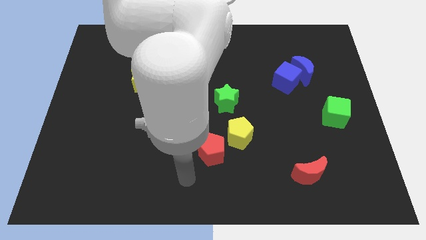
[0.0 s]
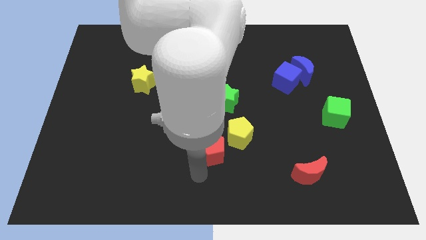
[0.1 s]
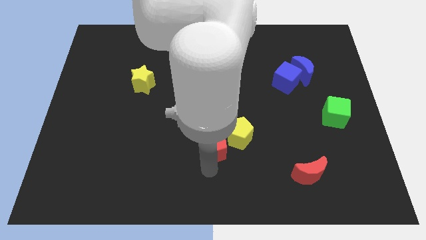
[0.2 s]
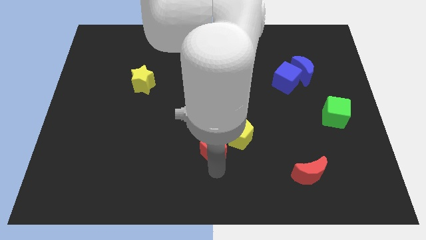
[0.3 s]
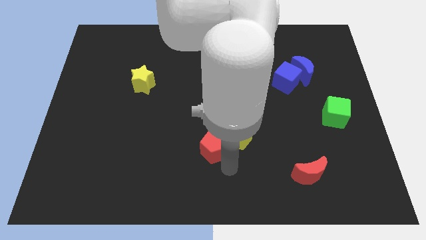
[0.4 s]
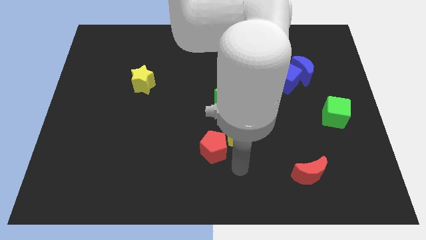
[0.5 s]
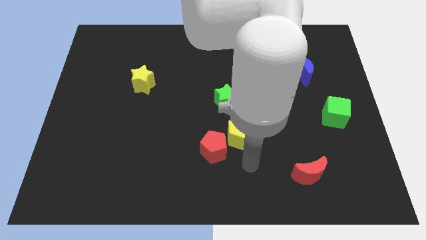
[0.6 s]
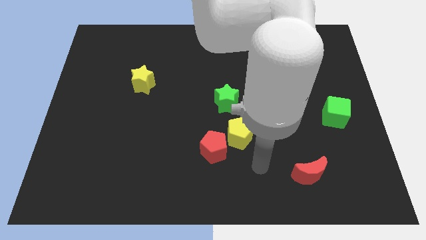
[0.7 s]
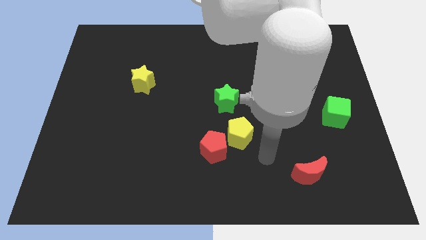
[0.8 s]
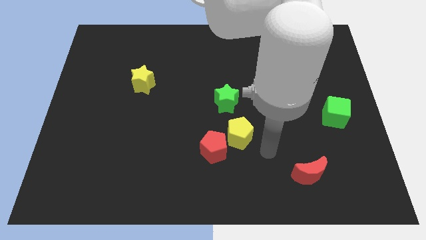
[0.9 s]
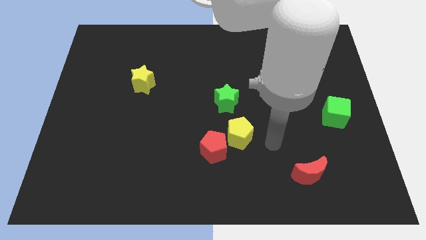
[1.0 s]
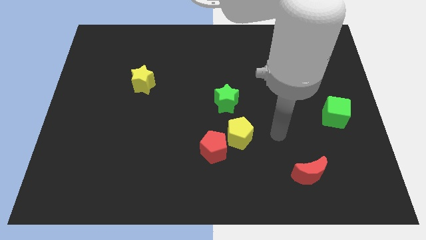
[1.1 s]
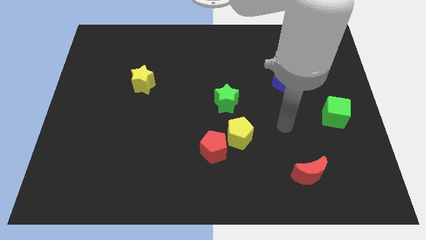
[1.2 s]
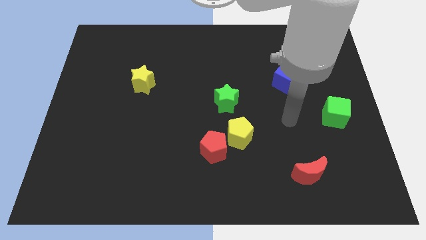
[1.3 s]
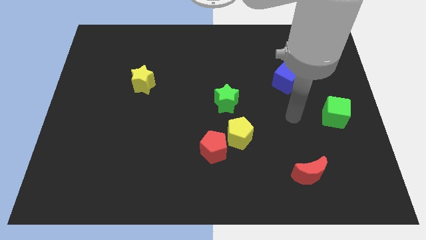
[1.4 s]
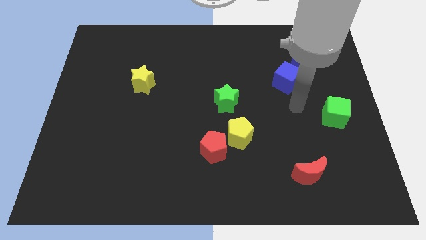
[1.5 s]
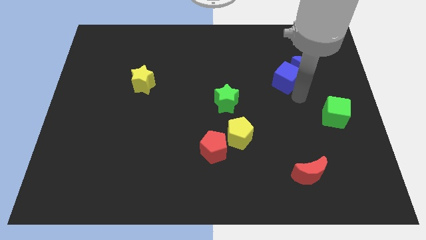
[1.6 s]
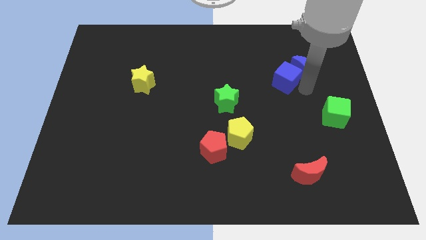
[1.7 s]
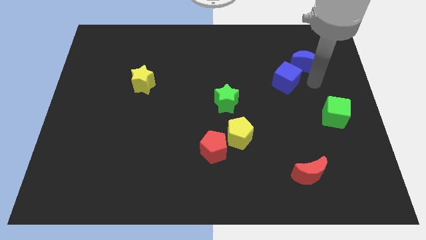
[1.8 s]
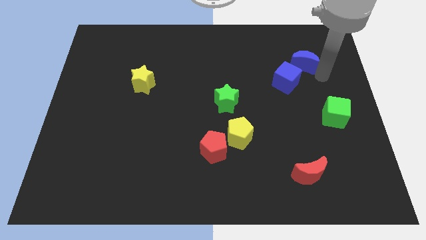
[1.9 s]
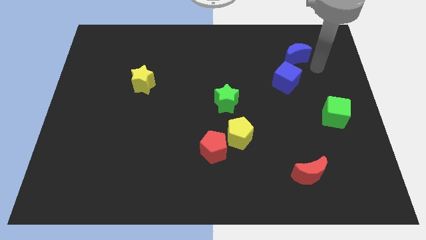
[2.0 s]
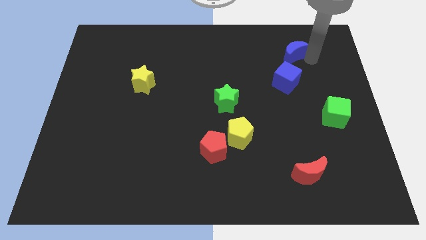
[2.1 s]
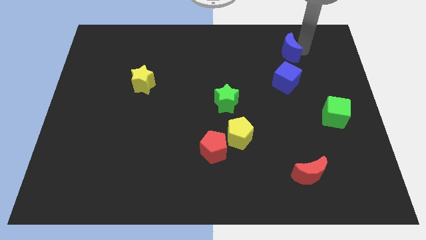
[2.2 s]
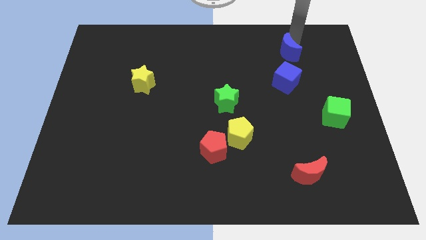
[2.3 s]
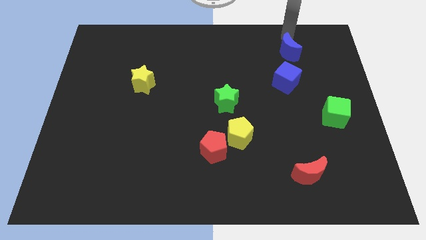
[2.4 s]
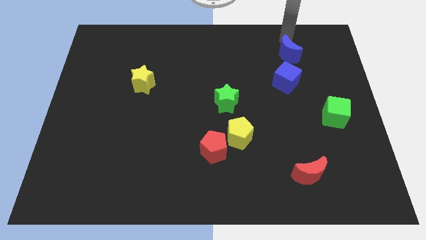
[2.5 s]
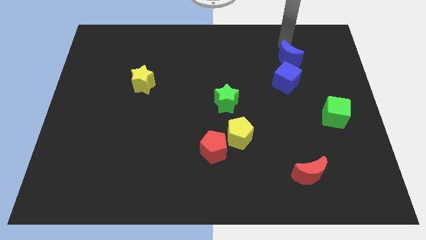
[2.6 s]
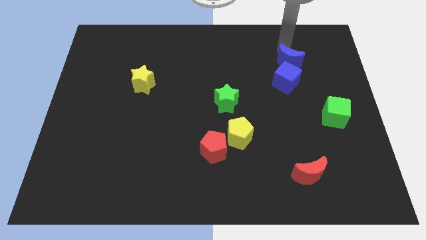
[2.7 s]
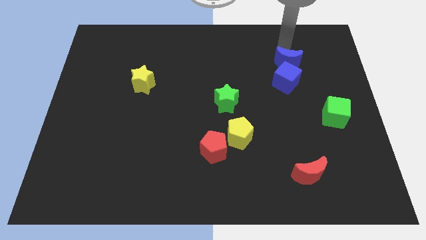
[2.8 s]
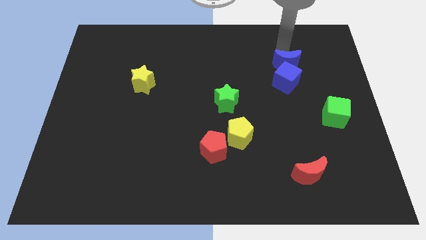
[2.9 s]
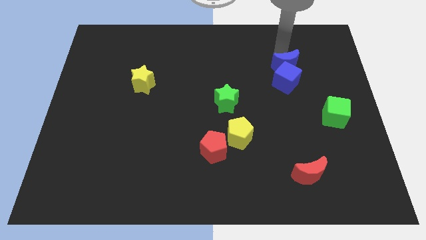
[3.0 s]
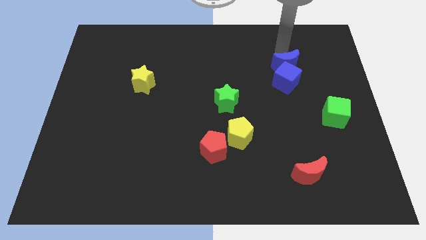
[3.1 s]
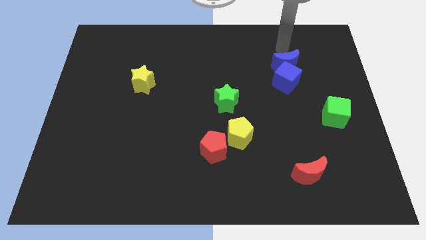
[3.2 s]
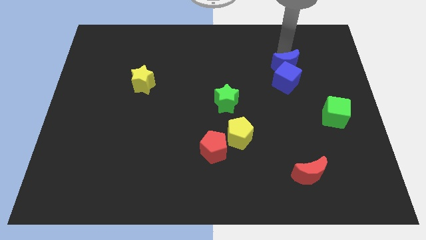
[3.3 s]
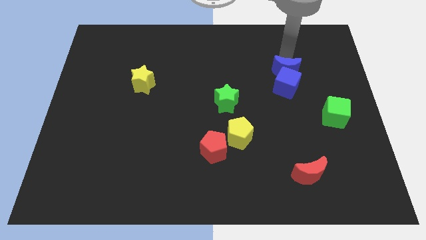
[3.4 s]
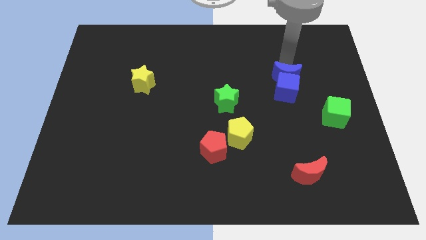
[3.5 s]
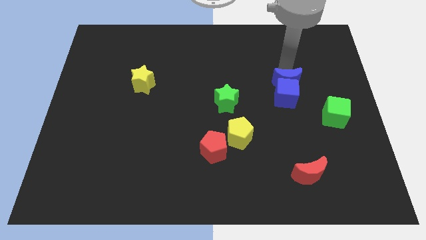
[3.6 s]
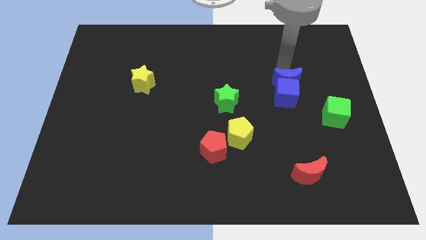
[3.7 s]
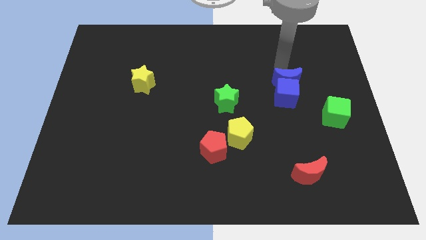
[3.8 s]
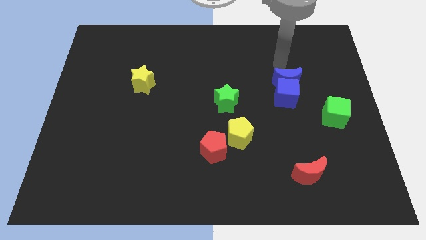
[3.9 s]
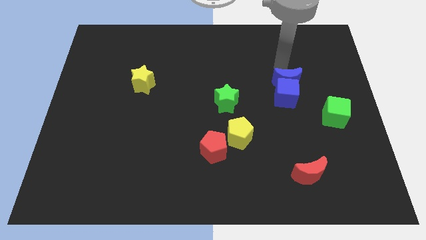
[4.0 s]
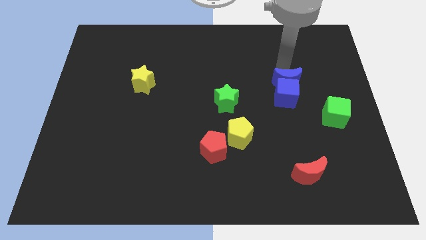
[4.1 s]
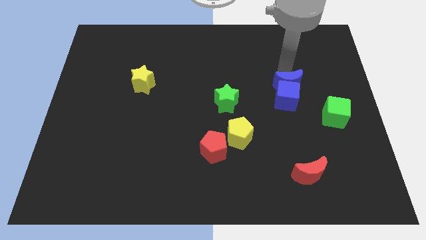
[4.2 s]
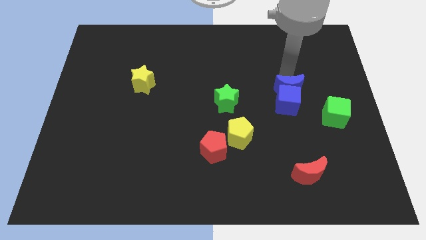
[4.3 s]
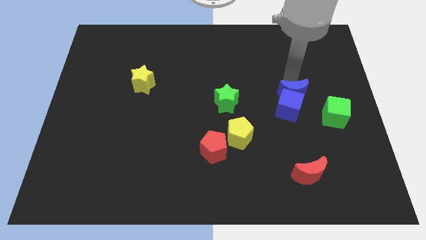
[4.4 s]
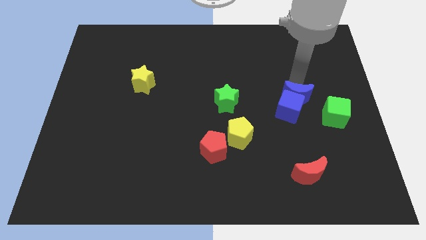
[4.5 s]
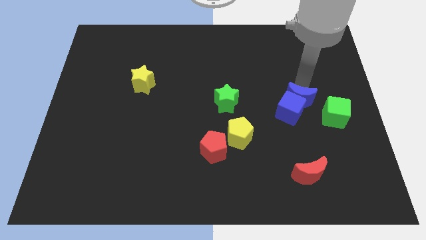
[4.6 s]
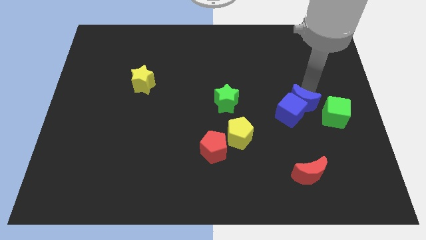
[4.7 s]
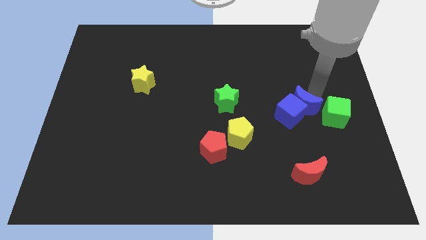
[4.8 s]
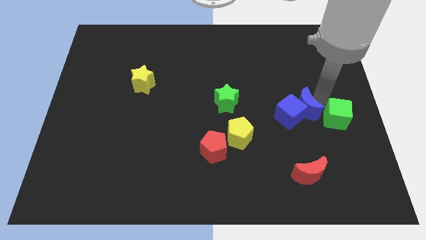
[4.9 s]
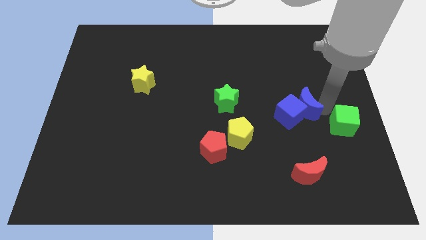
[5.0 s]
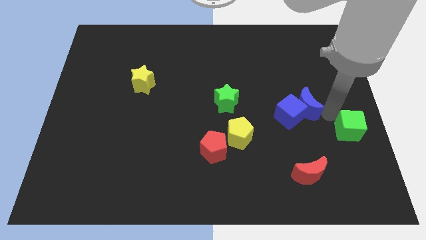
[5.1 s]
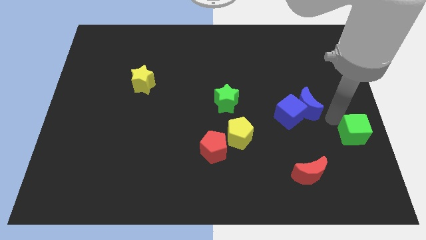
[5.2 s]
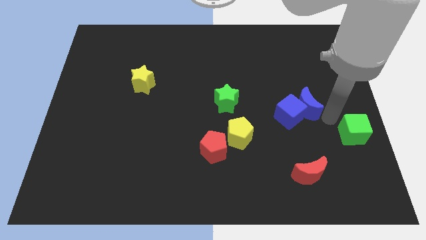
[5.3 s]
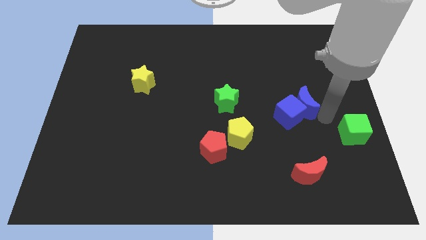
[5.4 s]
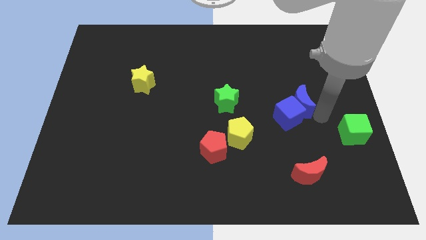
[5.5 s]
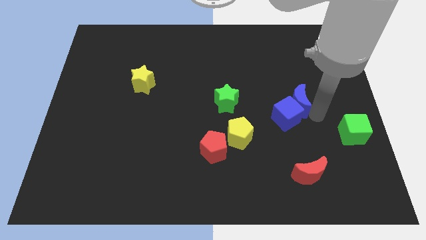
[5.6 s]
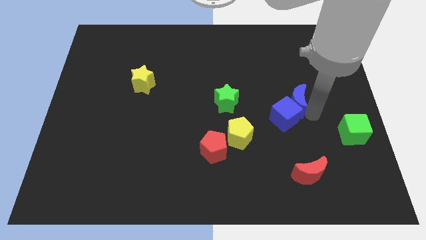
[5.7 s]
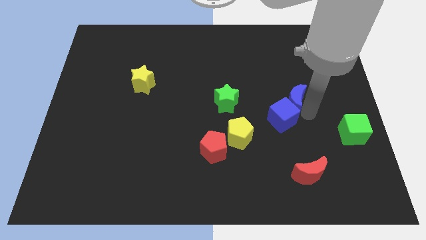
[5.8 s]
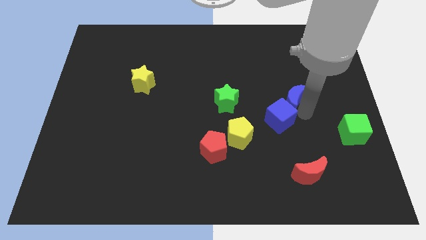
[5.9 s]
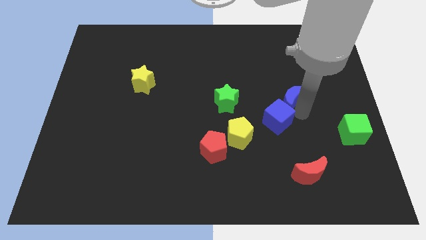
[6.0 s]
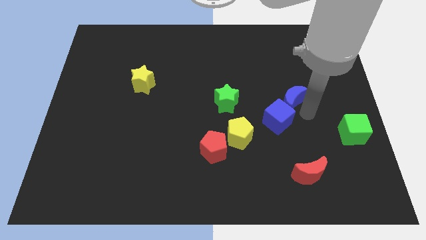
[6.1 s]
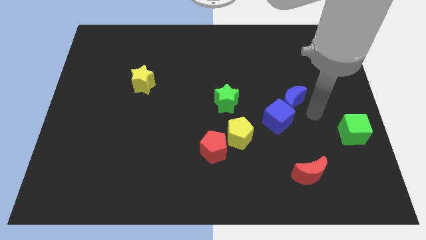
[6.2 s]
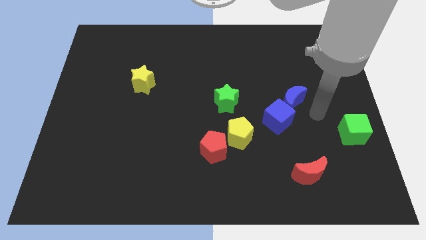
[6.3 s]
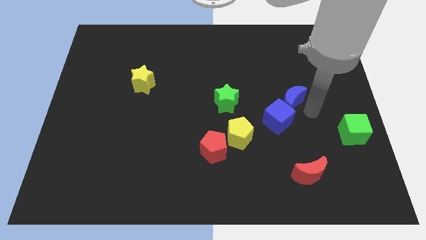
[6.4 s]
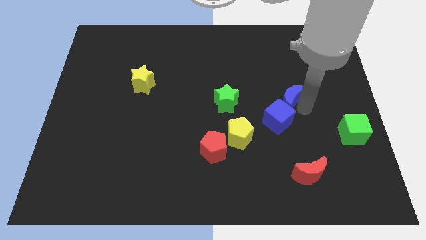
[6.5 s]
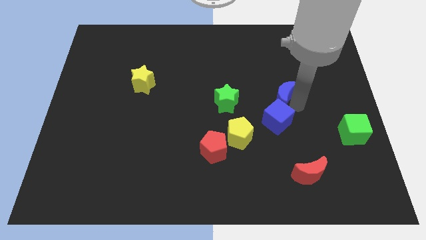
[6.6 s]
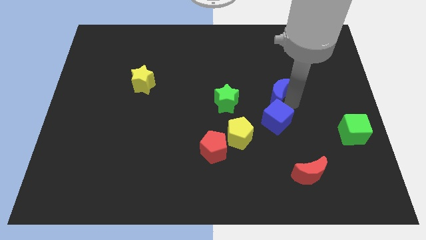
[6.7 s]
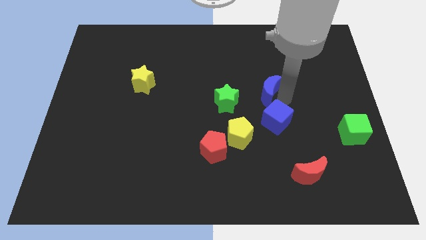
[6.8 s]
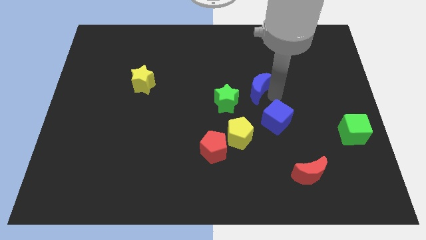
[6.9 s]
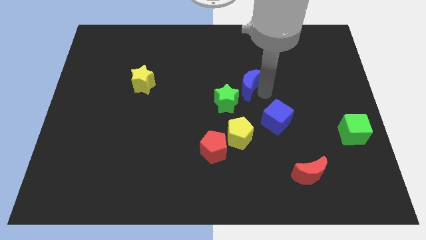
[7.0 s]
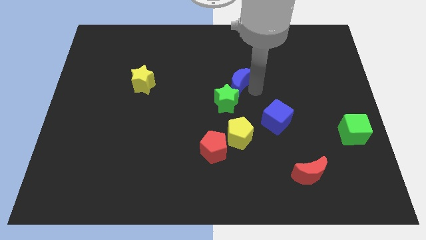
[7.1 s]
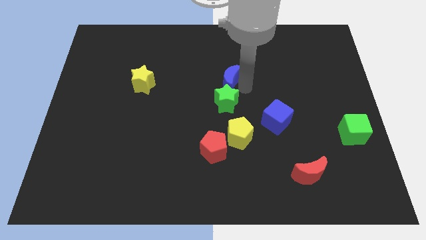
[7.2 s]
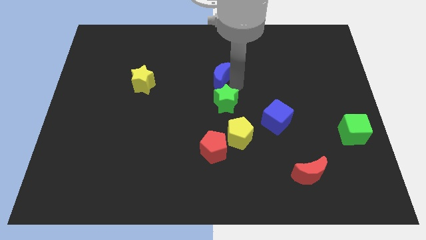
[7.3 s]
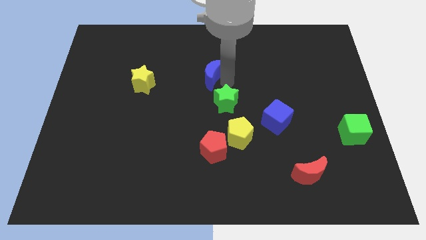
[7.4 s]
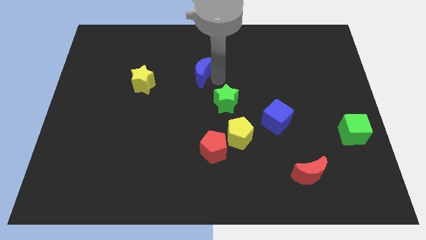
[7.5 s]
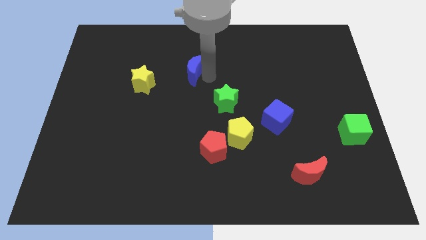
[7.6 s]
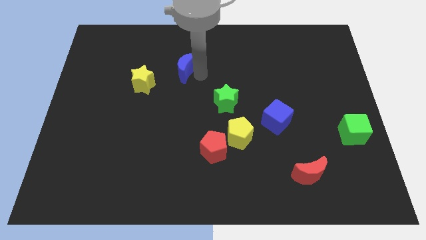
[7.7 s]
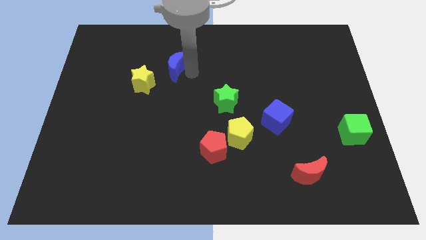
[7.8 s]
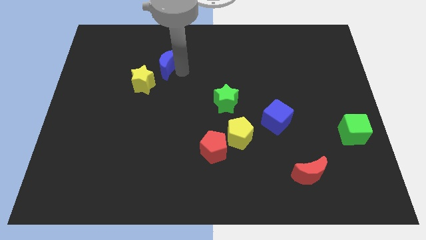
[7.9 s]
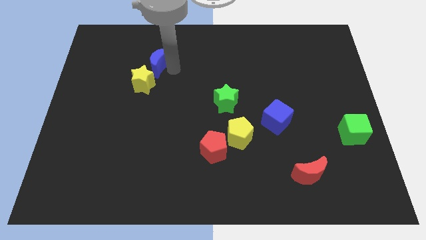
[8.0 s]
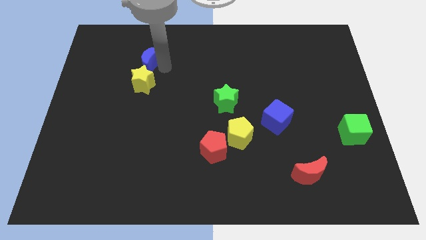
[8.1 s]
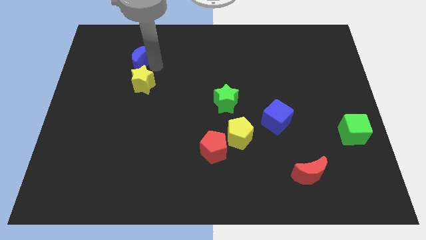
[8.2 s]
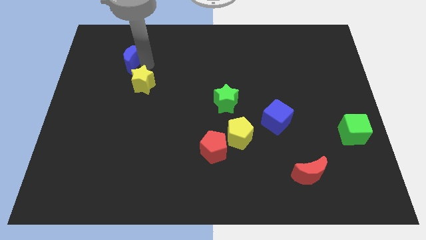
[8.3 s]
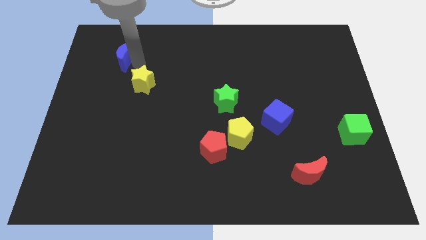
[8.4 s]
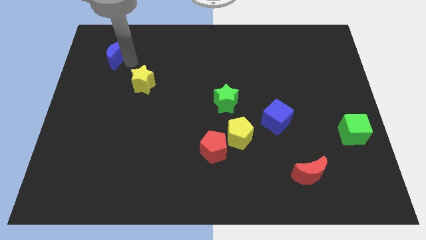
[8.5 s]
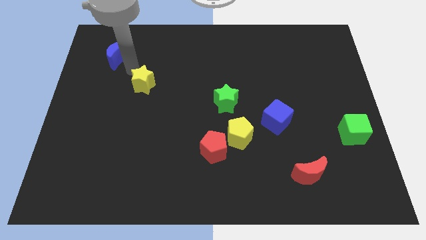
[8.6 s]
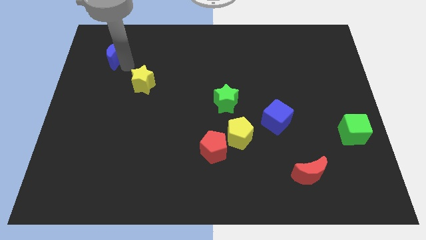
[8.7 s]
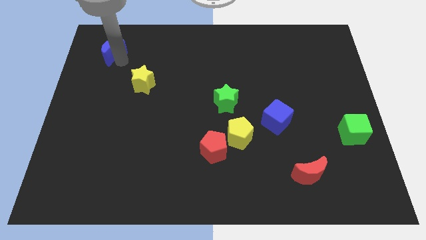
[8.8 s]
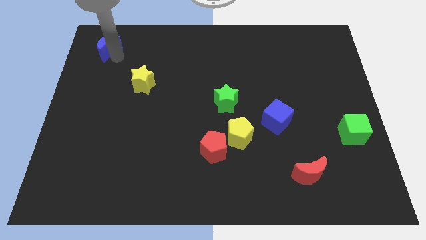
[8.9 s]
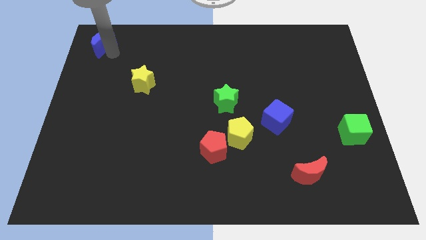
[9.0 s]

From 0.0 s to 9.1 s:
move the blue moon to the upper left corner
